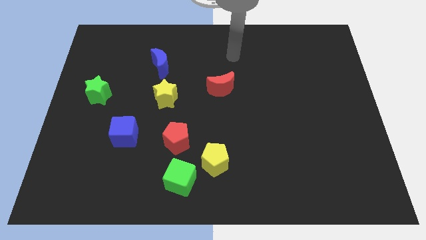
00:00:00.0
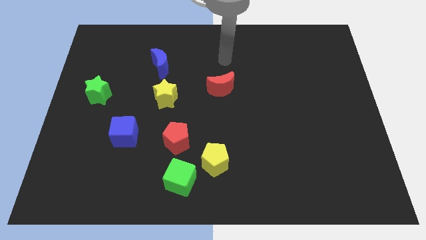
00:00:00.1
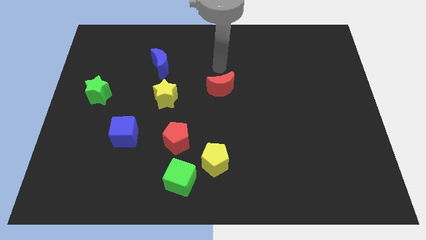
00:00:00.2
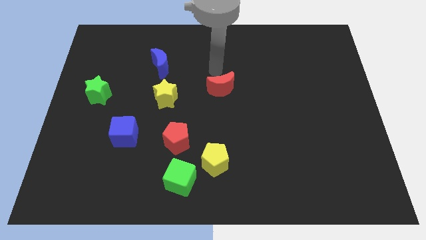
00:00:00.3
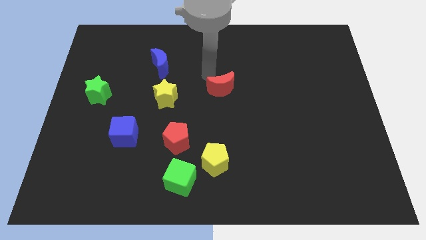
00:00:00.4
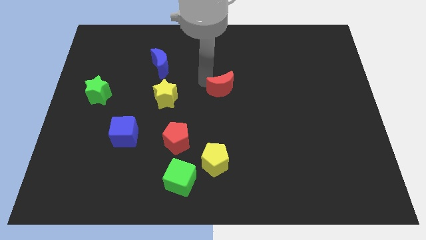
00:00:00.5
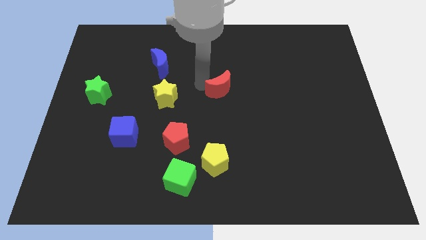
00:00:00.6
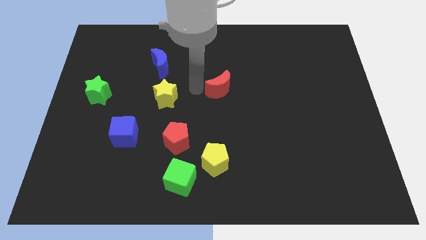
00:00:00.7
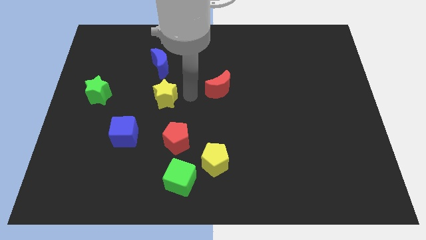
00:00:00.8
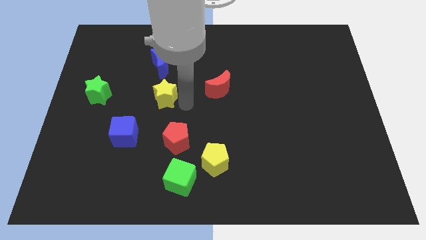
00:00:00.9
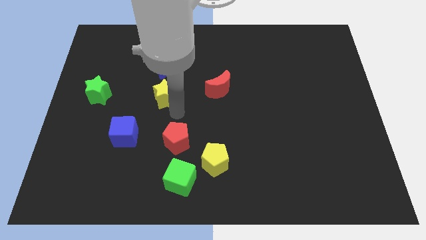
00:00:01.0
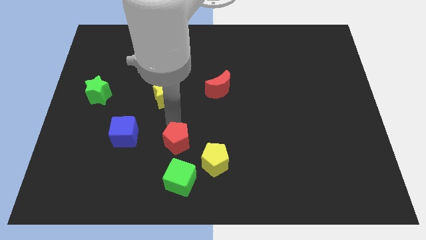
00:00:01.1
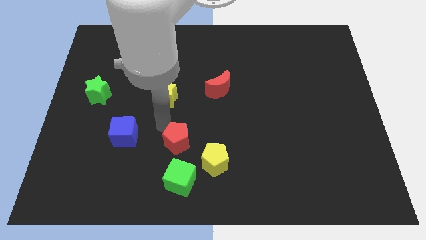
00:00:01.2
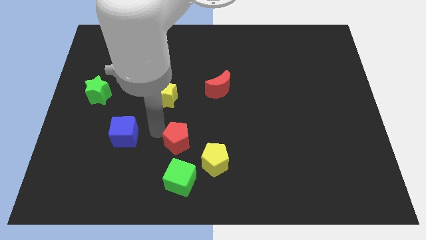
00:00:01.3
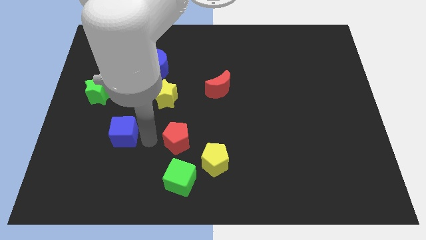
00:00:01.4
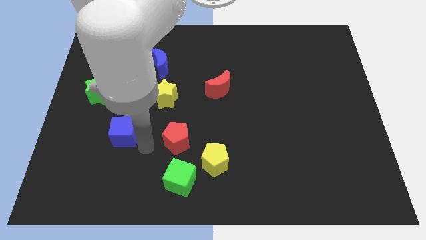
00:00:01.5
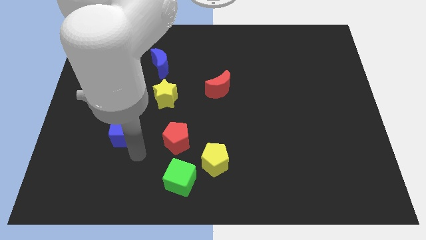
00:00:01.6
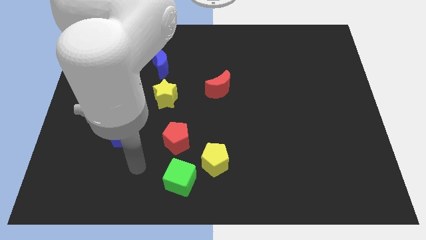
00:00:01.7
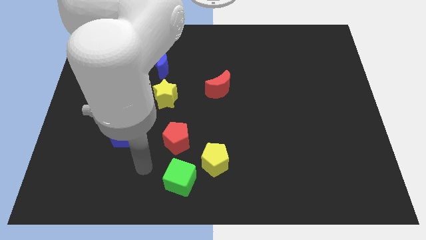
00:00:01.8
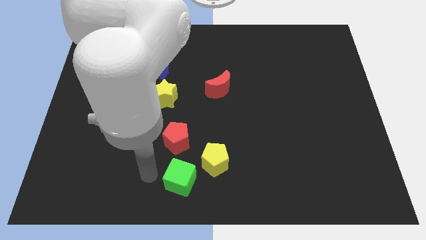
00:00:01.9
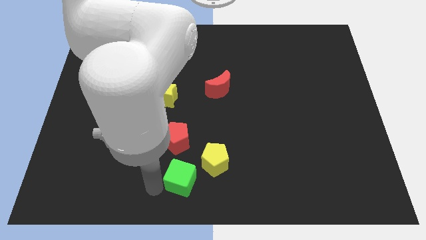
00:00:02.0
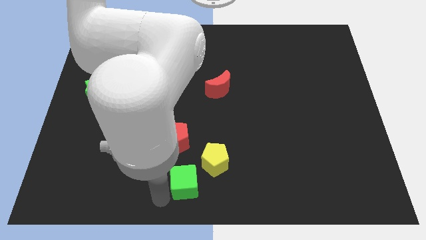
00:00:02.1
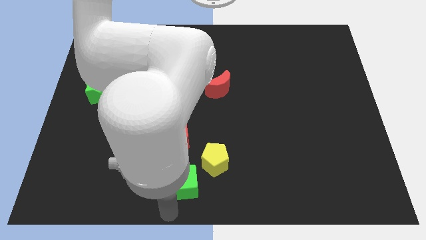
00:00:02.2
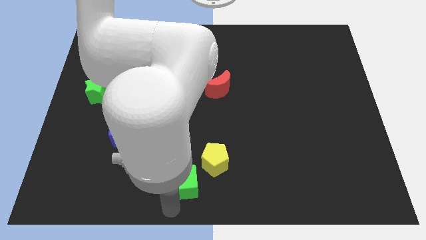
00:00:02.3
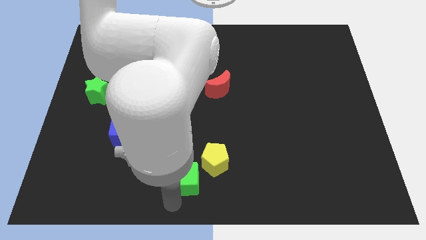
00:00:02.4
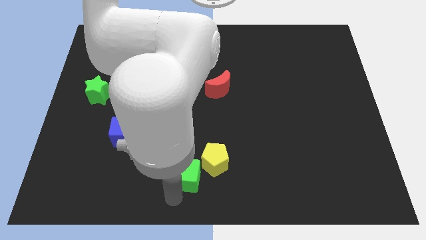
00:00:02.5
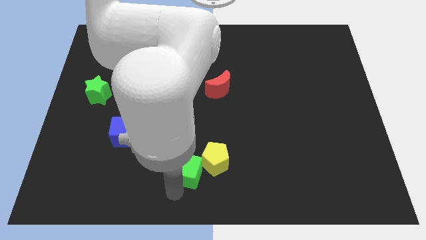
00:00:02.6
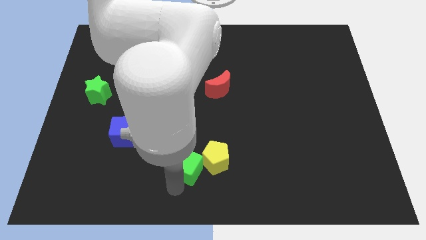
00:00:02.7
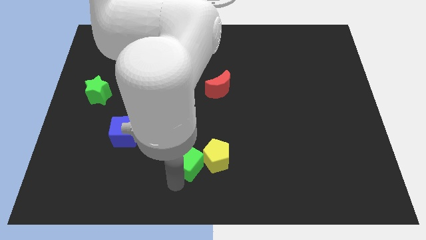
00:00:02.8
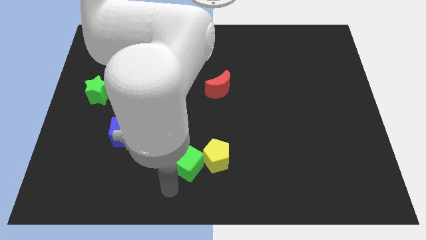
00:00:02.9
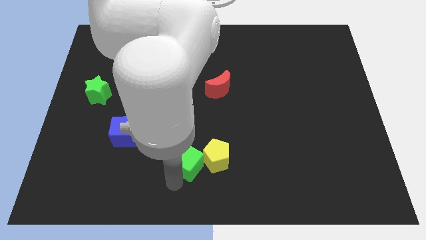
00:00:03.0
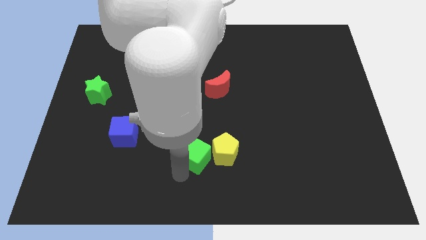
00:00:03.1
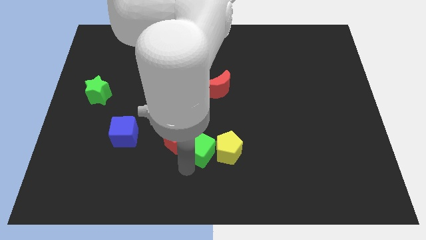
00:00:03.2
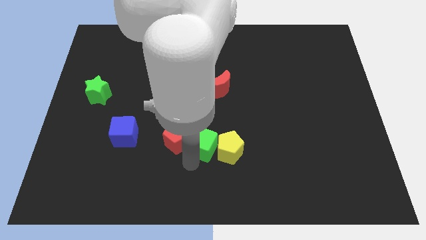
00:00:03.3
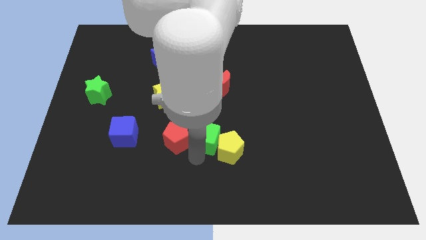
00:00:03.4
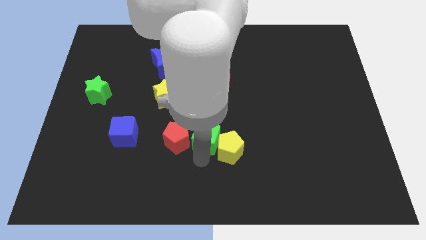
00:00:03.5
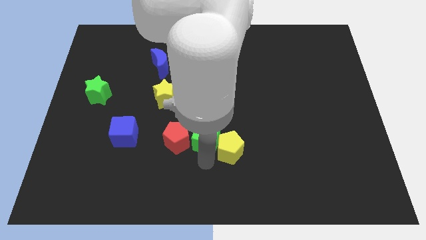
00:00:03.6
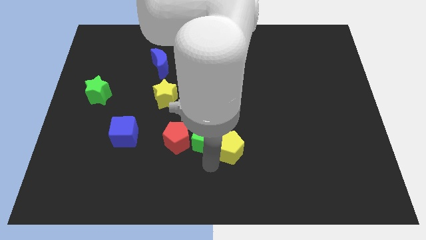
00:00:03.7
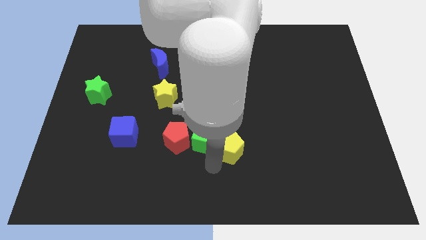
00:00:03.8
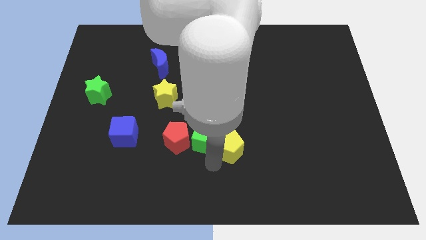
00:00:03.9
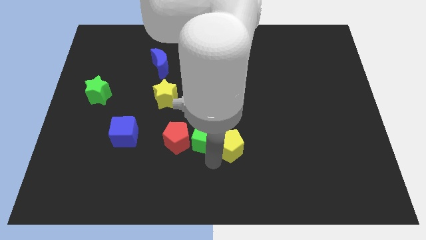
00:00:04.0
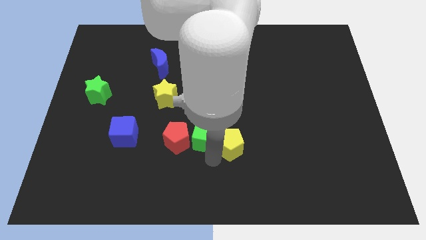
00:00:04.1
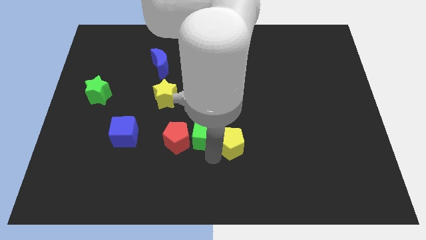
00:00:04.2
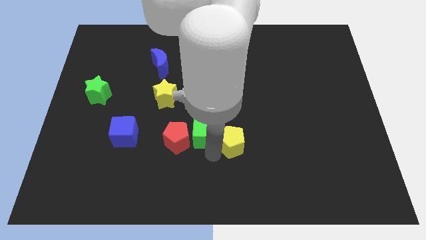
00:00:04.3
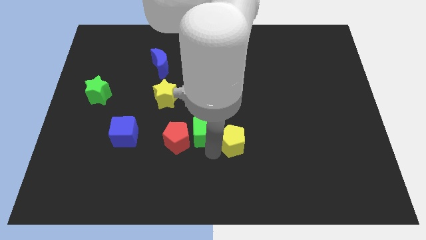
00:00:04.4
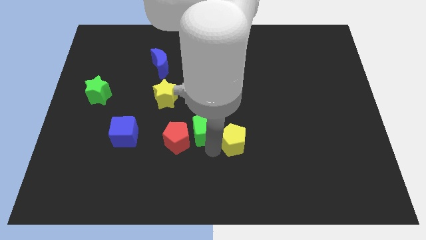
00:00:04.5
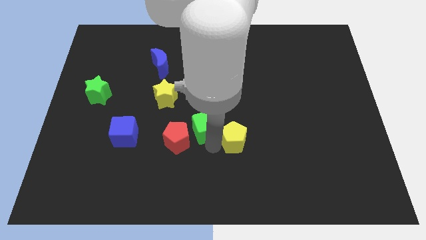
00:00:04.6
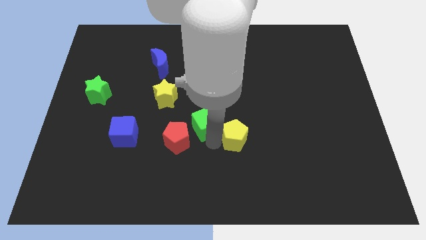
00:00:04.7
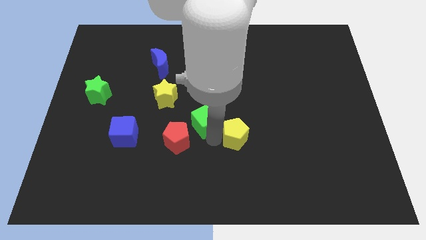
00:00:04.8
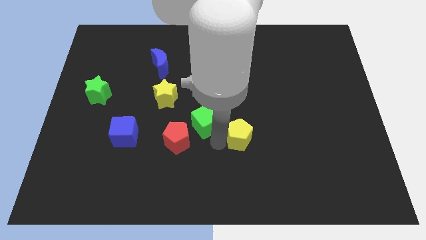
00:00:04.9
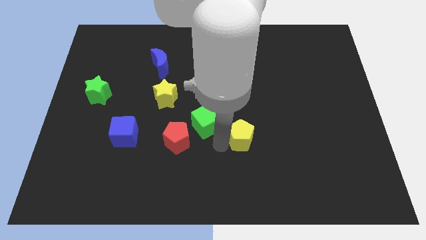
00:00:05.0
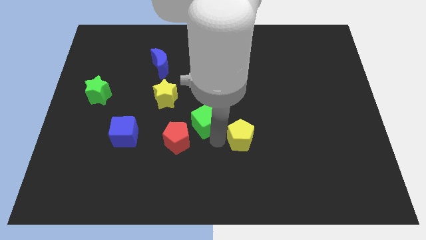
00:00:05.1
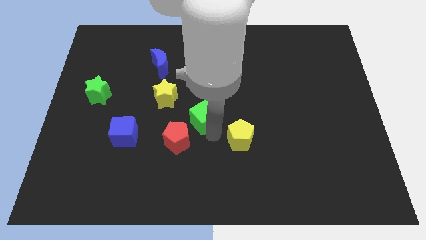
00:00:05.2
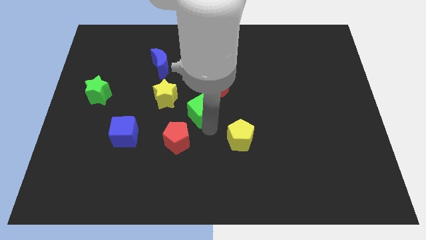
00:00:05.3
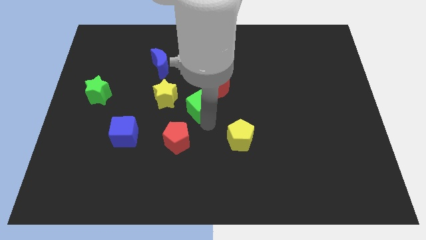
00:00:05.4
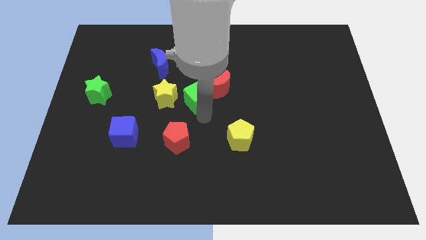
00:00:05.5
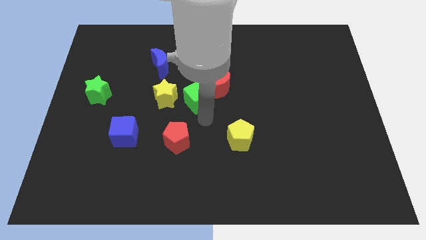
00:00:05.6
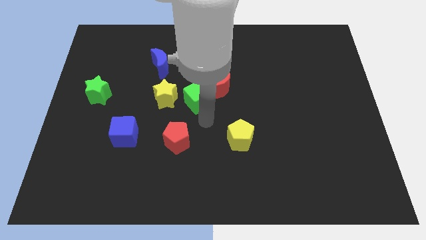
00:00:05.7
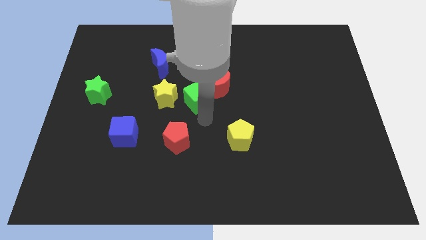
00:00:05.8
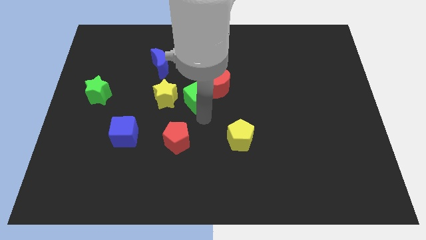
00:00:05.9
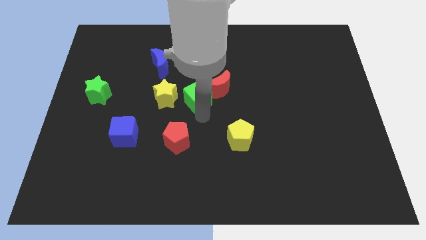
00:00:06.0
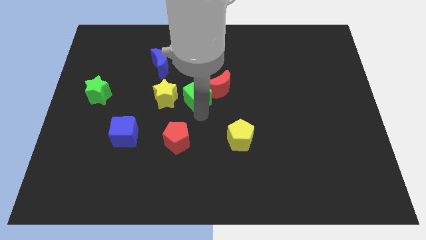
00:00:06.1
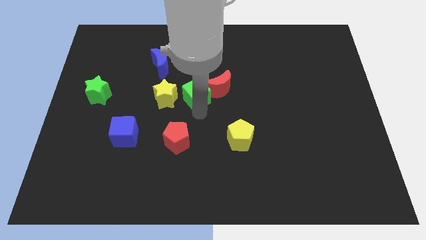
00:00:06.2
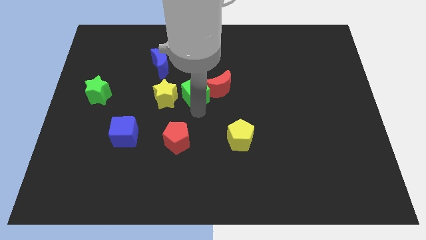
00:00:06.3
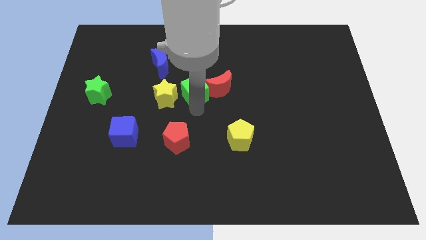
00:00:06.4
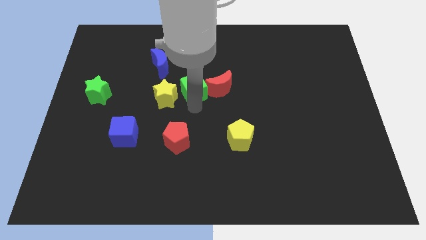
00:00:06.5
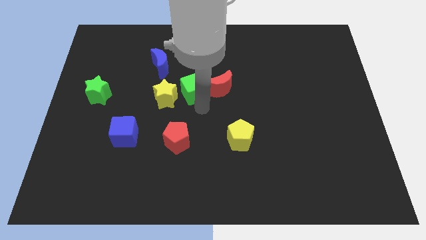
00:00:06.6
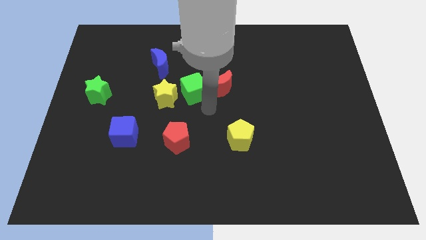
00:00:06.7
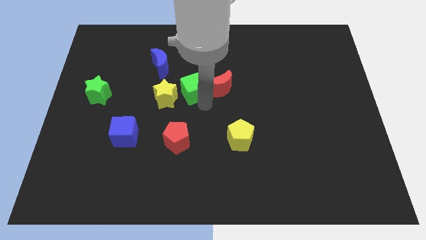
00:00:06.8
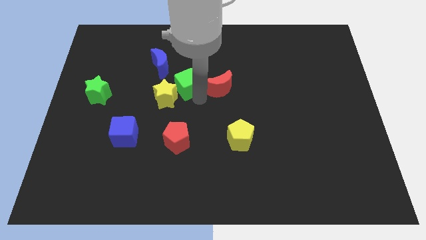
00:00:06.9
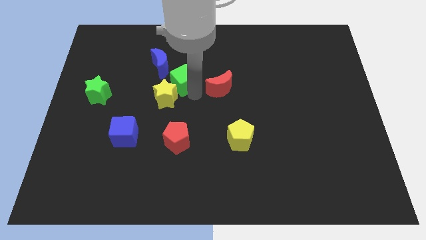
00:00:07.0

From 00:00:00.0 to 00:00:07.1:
slide the green cube to the top of the yellow star
